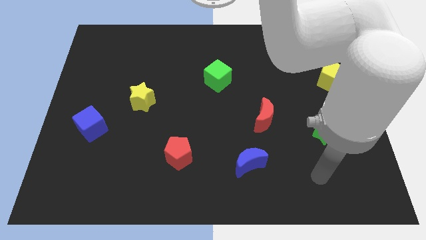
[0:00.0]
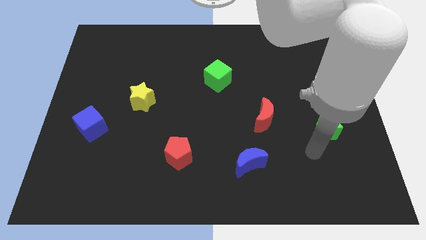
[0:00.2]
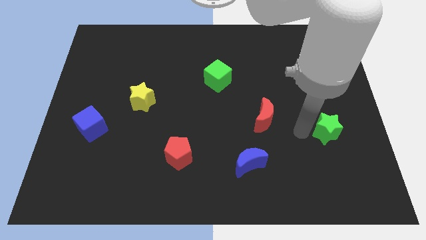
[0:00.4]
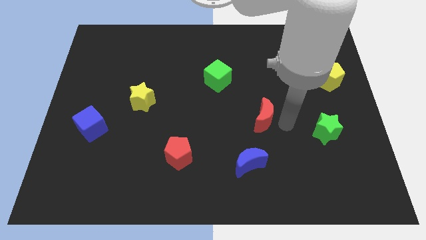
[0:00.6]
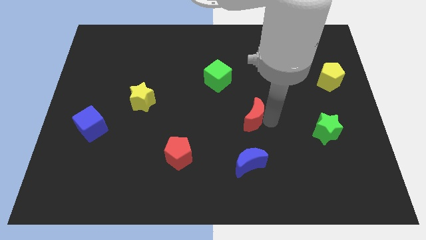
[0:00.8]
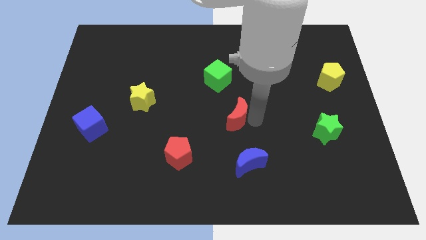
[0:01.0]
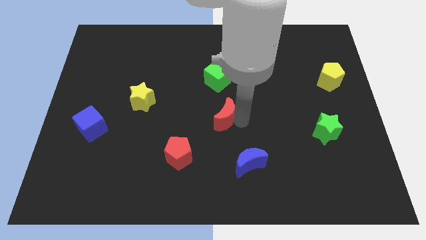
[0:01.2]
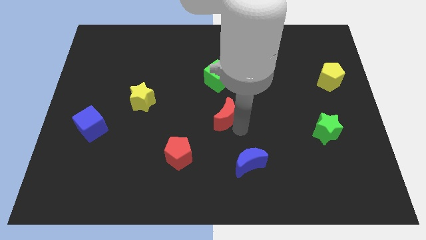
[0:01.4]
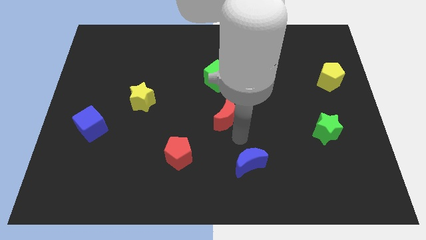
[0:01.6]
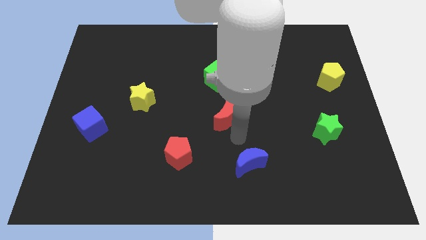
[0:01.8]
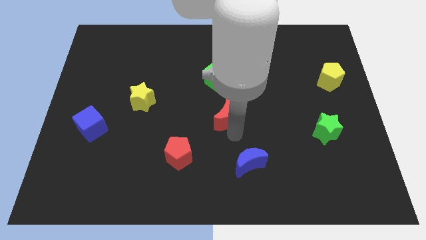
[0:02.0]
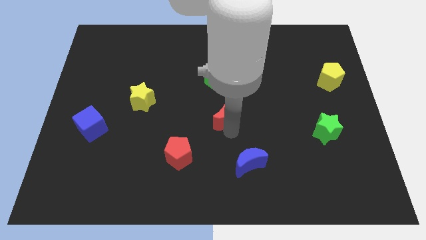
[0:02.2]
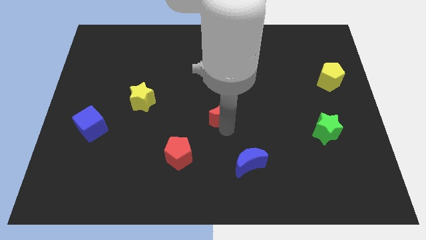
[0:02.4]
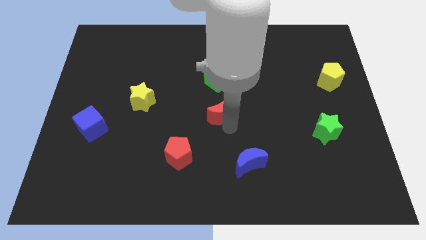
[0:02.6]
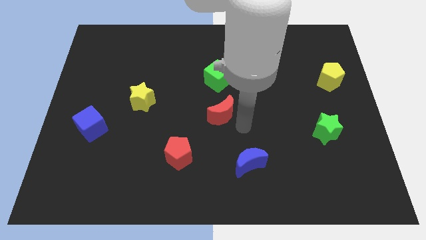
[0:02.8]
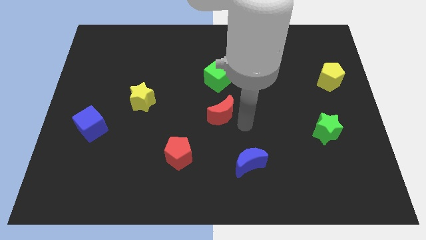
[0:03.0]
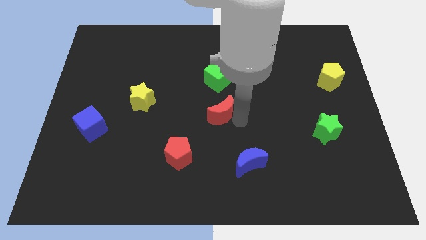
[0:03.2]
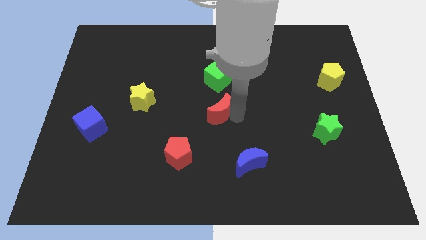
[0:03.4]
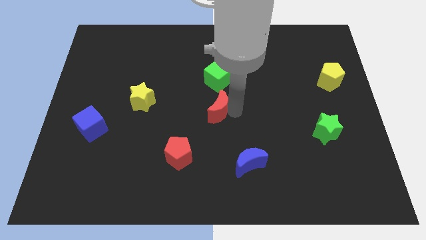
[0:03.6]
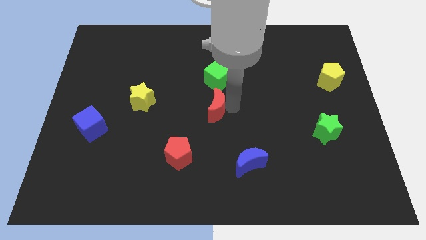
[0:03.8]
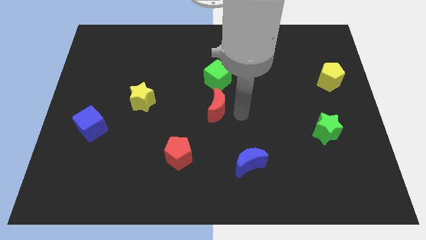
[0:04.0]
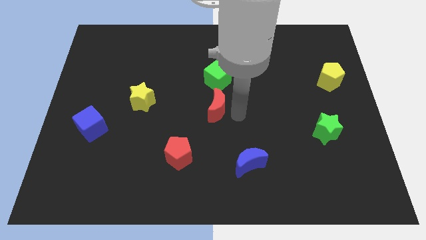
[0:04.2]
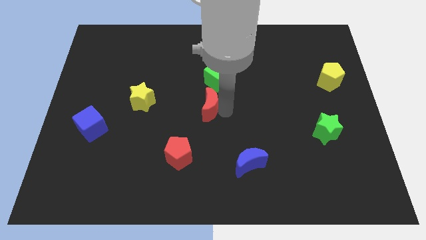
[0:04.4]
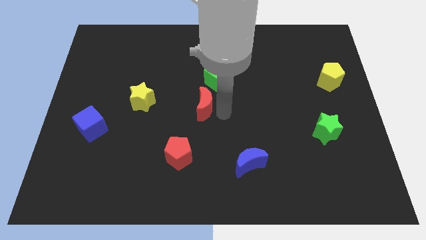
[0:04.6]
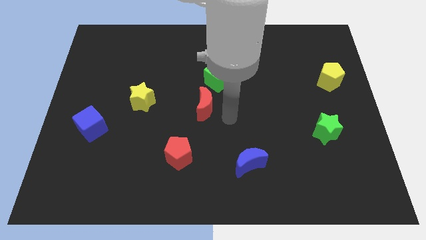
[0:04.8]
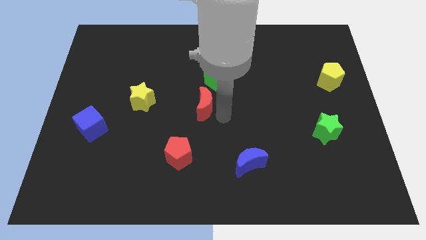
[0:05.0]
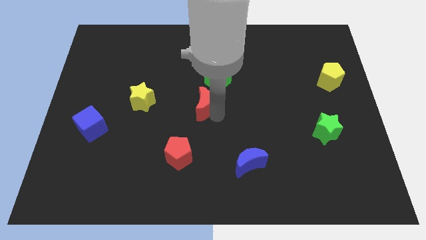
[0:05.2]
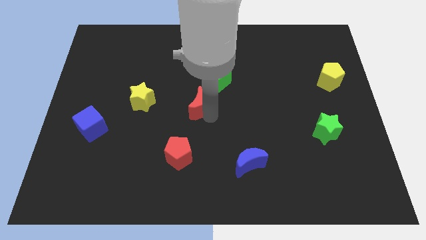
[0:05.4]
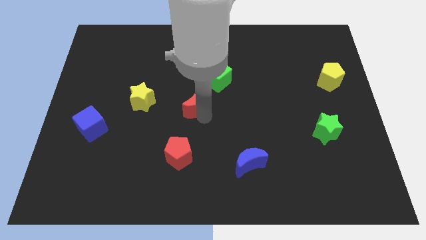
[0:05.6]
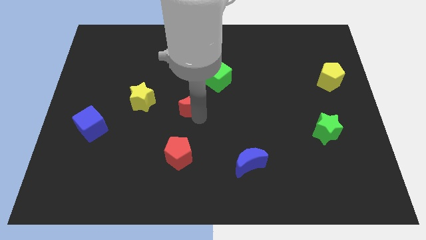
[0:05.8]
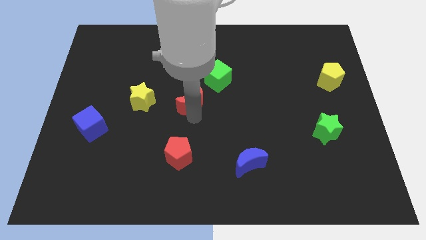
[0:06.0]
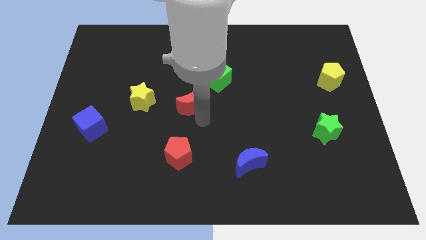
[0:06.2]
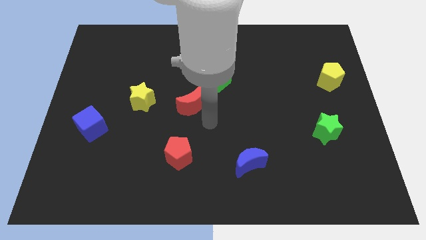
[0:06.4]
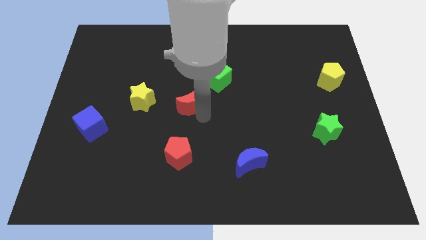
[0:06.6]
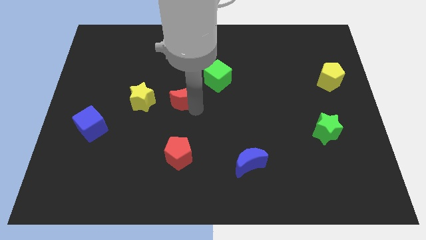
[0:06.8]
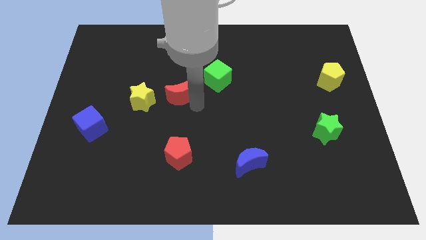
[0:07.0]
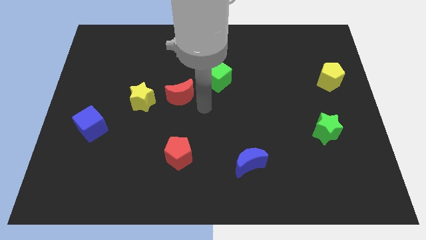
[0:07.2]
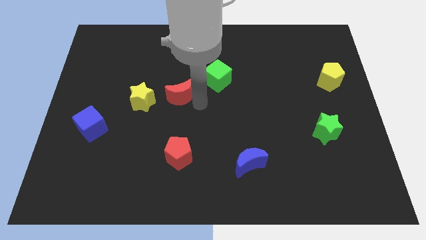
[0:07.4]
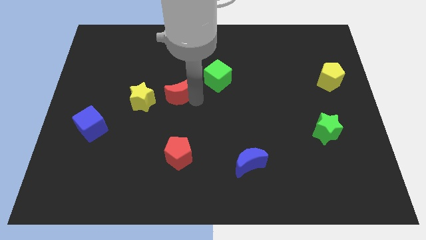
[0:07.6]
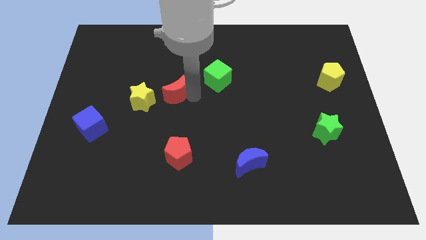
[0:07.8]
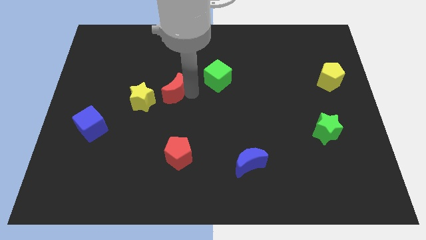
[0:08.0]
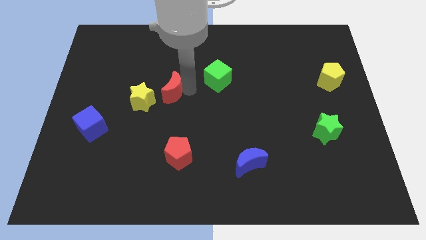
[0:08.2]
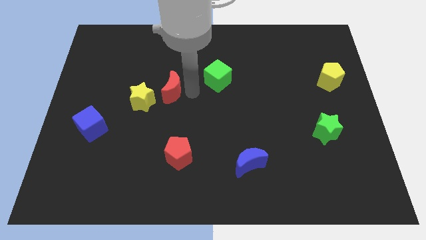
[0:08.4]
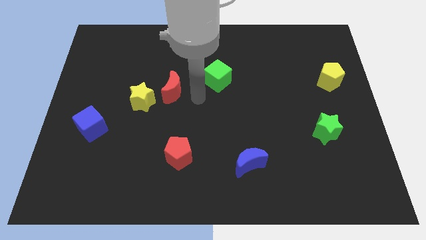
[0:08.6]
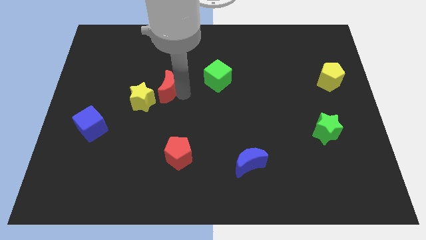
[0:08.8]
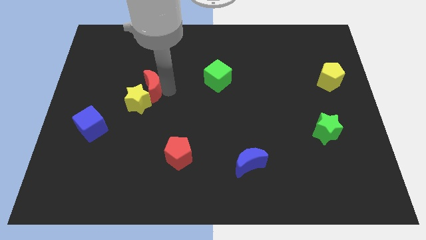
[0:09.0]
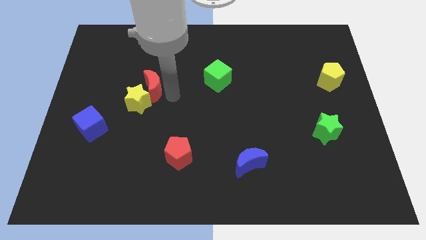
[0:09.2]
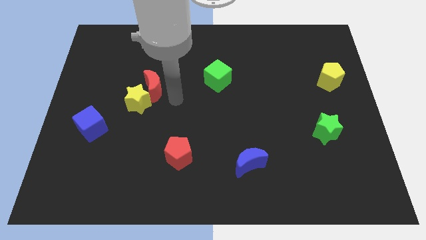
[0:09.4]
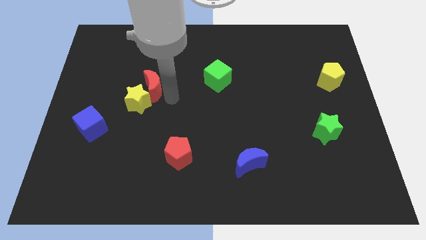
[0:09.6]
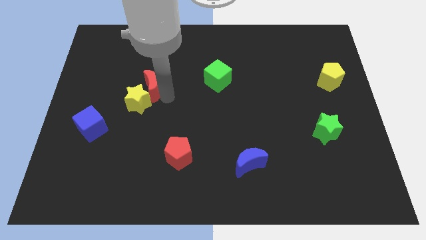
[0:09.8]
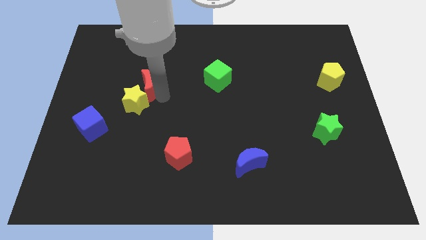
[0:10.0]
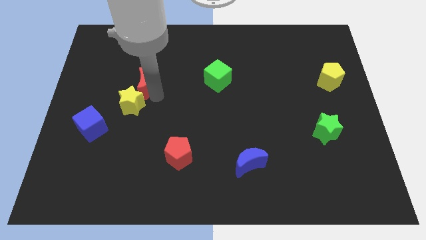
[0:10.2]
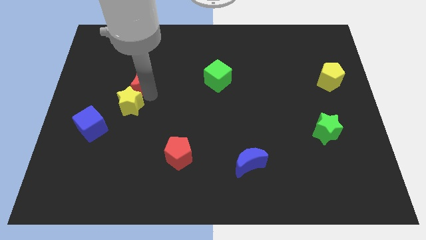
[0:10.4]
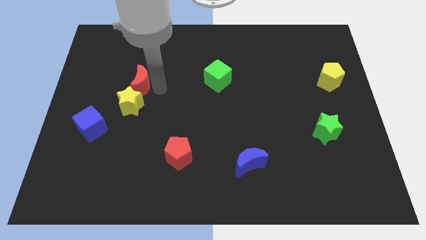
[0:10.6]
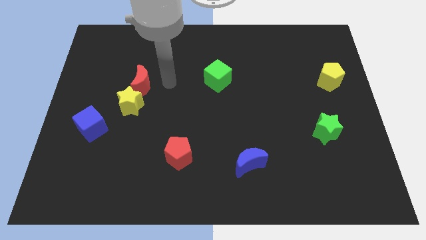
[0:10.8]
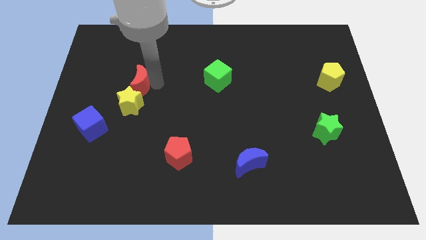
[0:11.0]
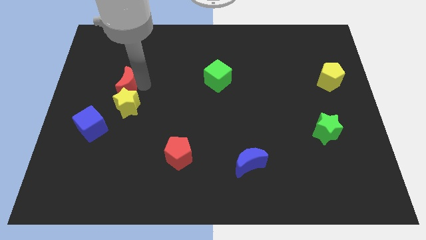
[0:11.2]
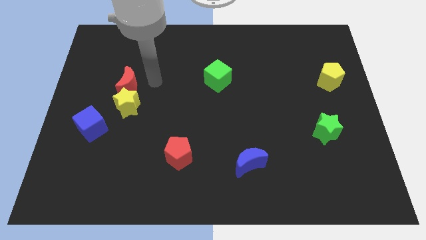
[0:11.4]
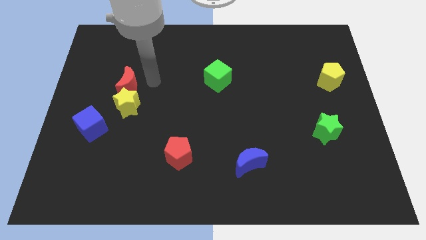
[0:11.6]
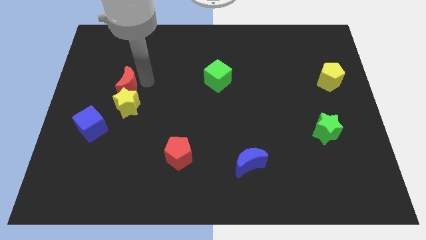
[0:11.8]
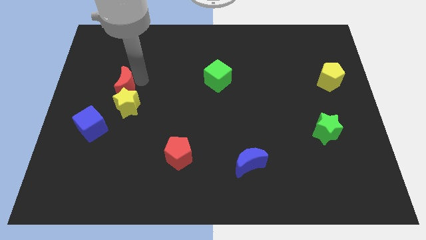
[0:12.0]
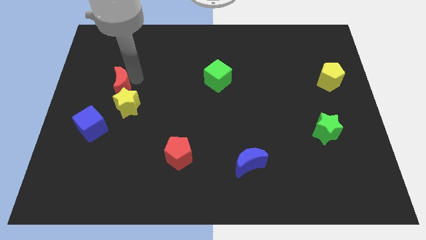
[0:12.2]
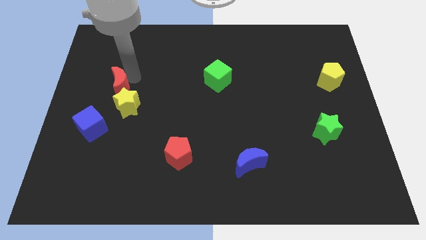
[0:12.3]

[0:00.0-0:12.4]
slide the red moon to the top side of the blue cube

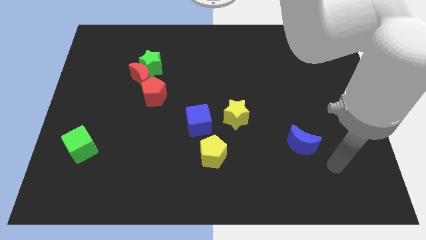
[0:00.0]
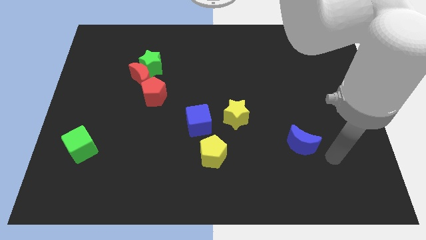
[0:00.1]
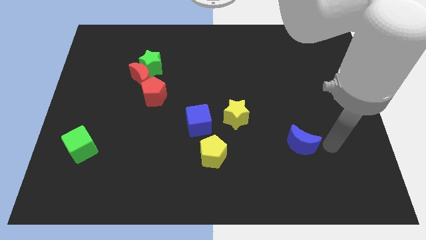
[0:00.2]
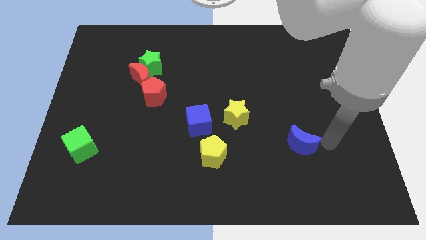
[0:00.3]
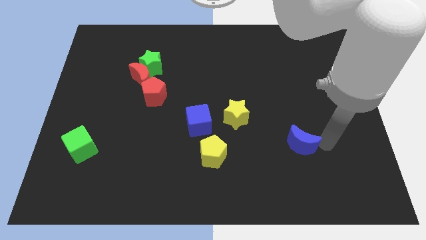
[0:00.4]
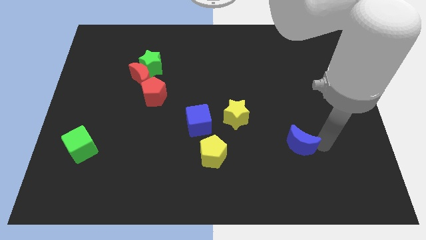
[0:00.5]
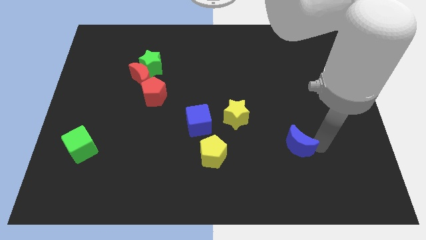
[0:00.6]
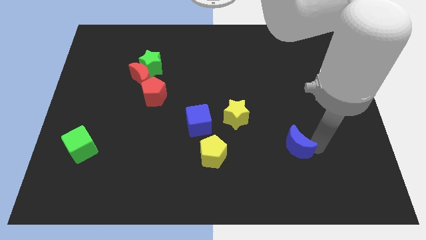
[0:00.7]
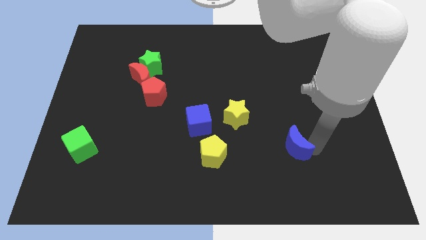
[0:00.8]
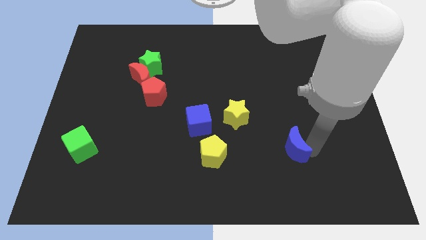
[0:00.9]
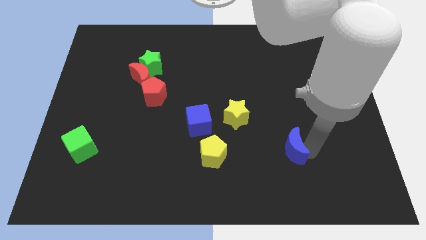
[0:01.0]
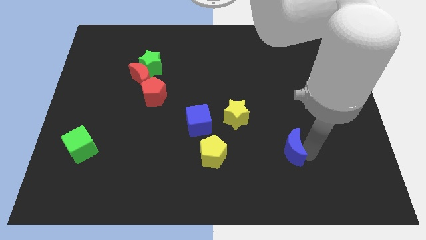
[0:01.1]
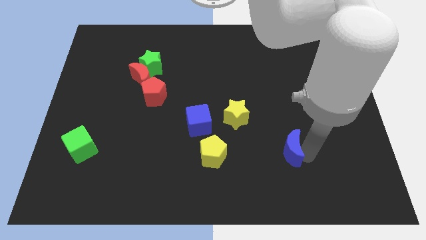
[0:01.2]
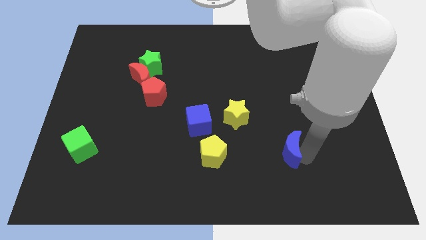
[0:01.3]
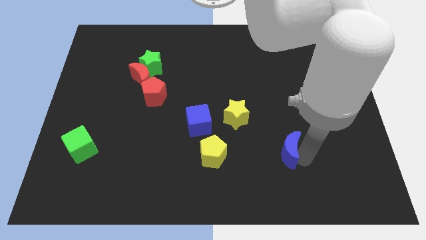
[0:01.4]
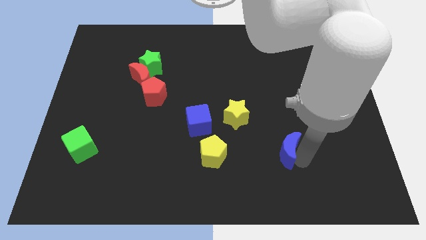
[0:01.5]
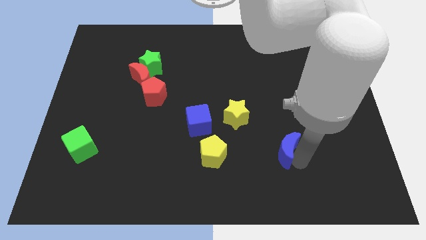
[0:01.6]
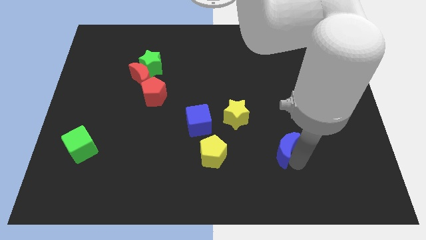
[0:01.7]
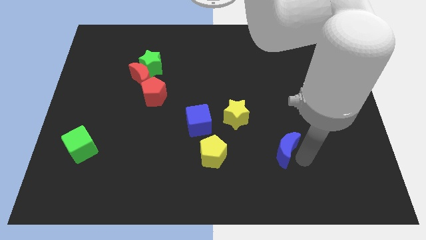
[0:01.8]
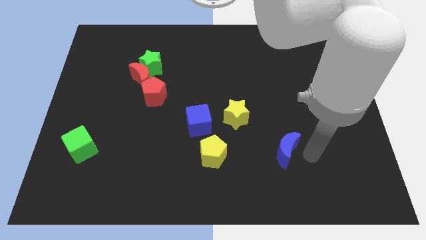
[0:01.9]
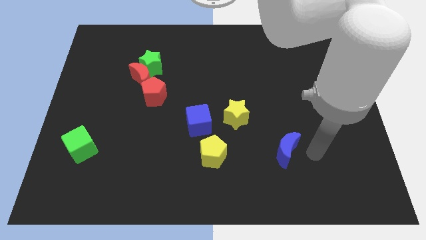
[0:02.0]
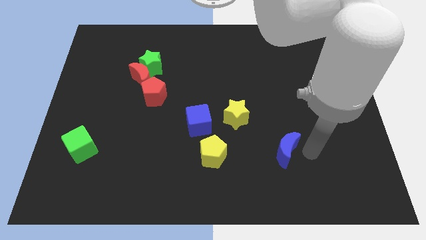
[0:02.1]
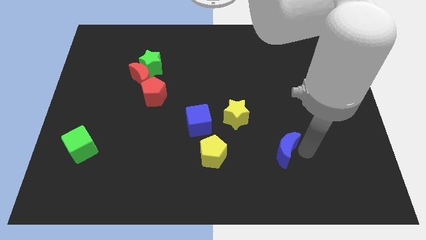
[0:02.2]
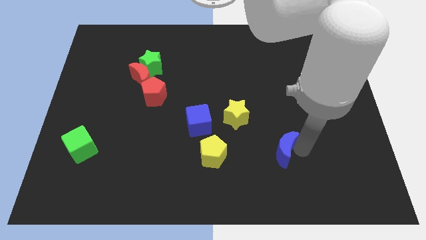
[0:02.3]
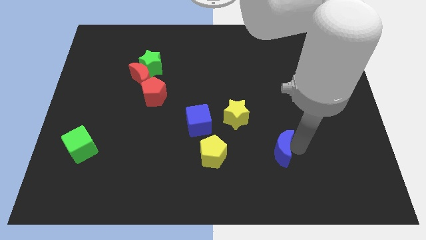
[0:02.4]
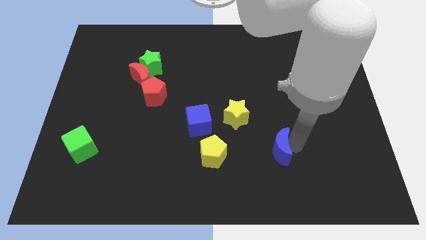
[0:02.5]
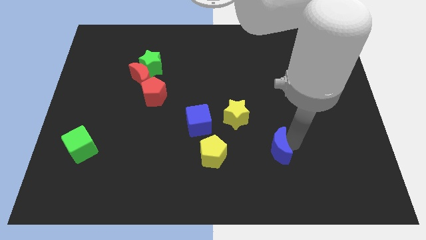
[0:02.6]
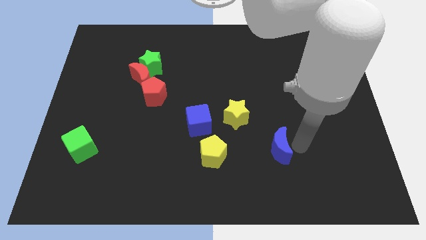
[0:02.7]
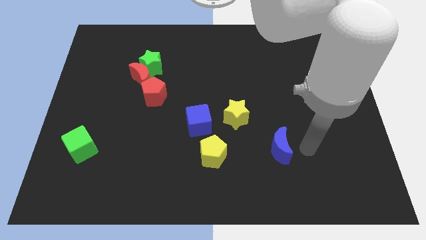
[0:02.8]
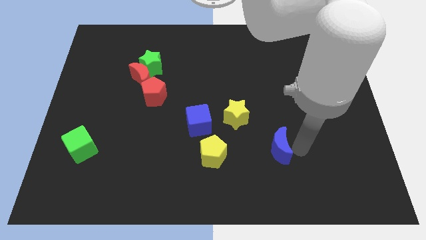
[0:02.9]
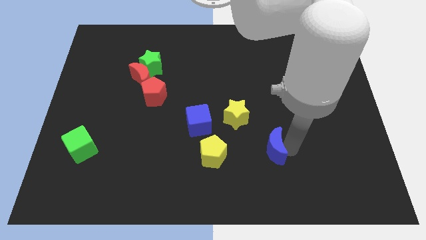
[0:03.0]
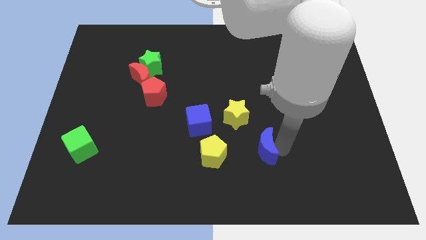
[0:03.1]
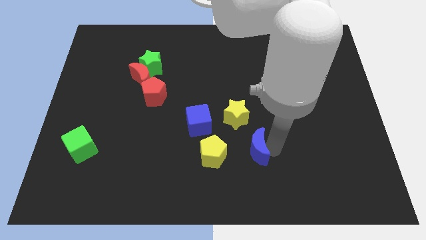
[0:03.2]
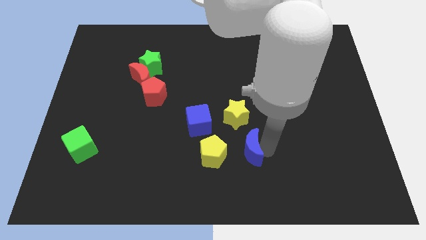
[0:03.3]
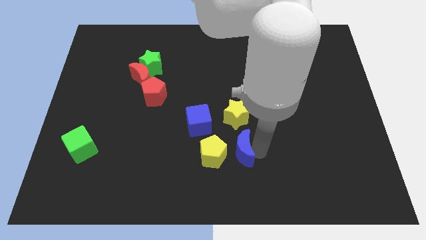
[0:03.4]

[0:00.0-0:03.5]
move the blue moon to the bottom right side of the blue cube
